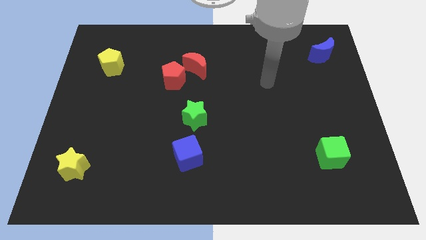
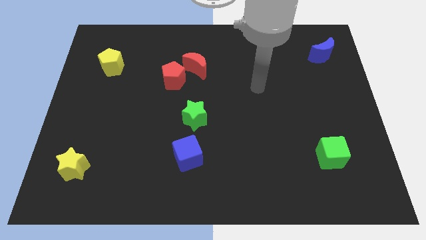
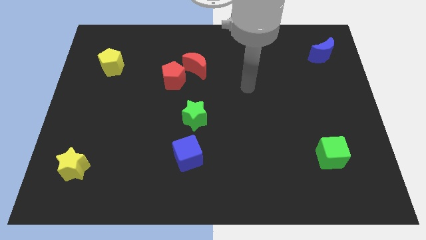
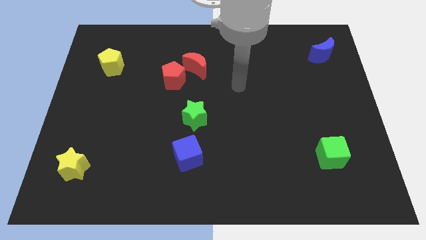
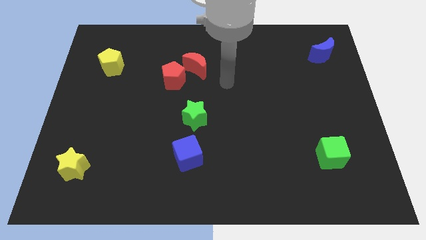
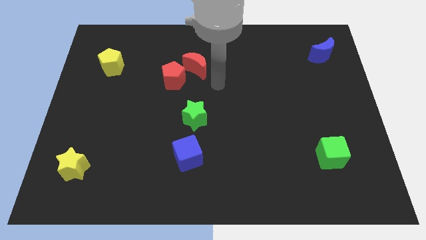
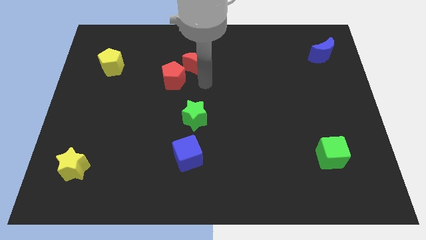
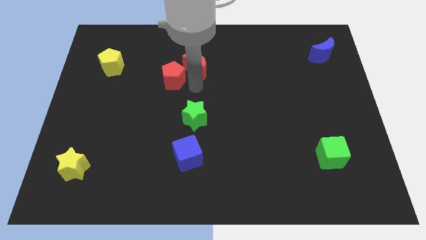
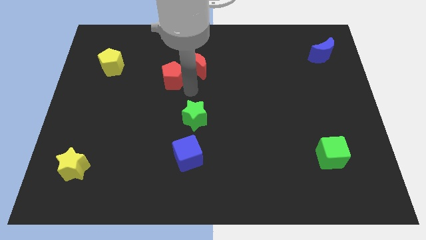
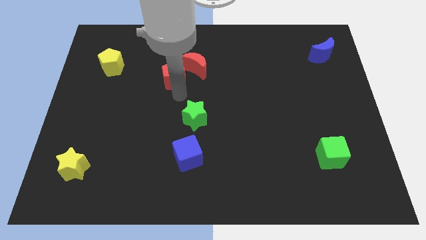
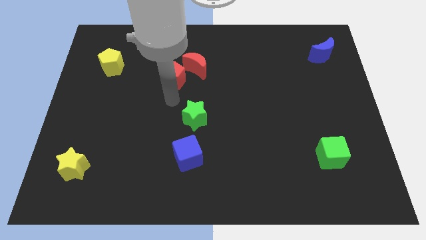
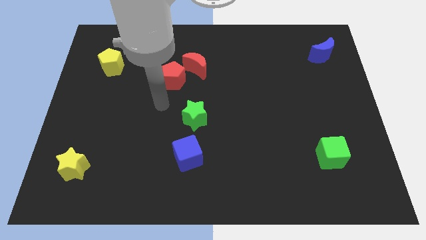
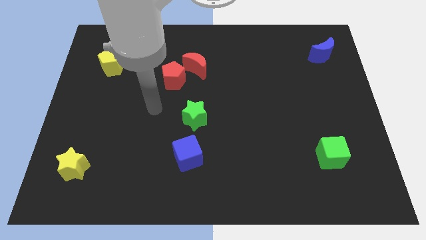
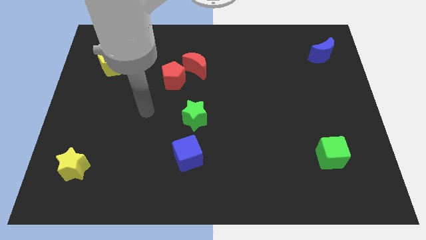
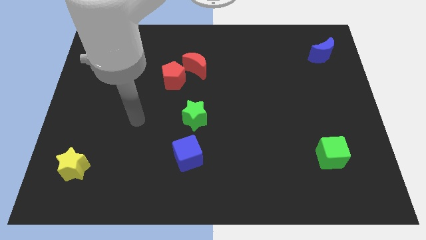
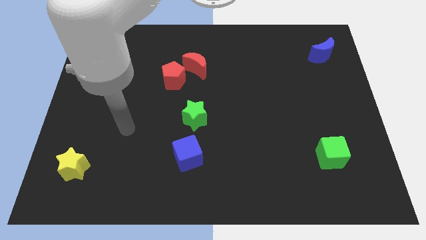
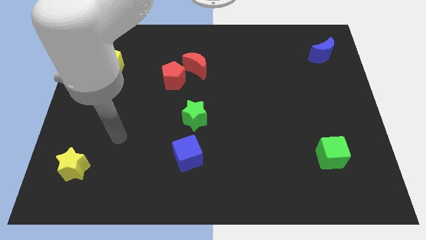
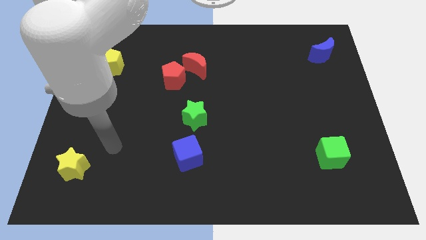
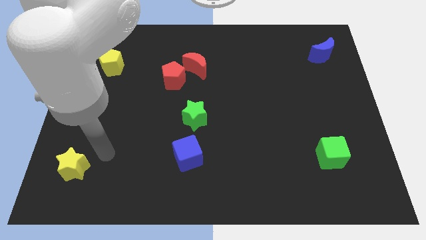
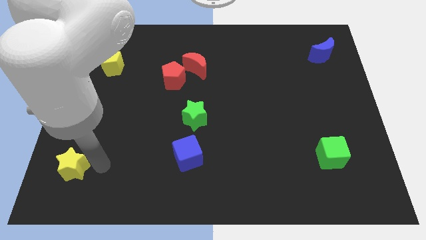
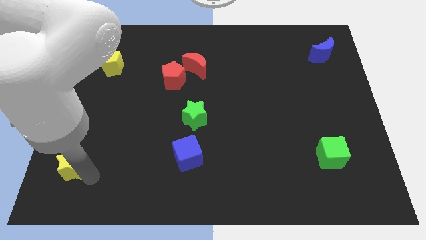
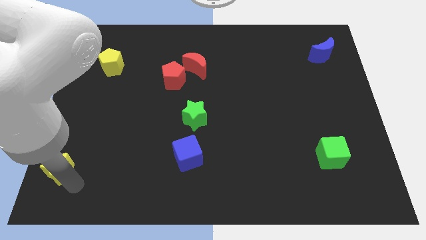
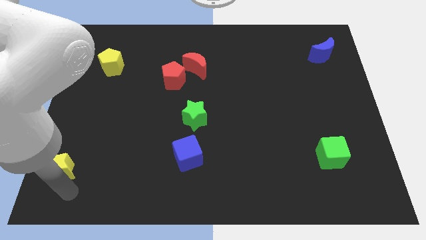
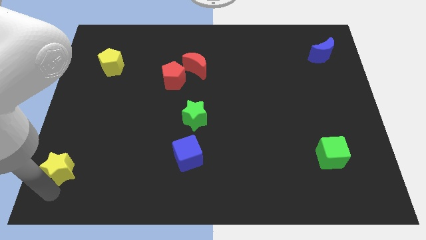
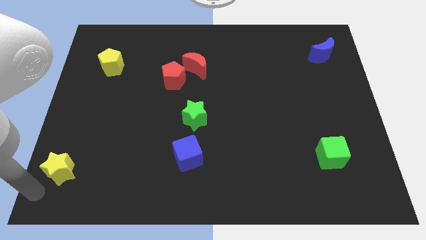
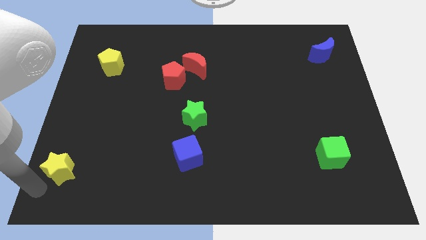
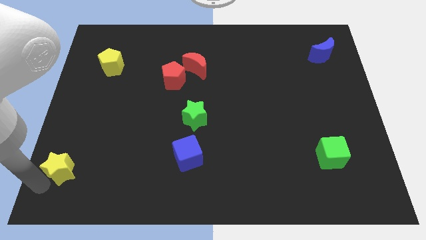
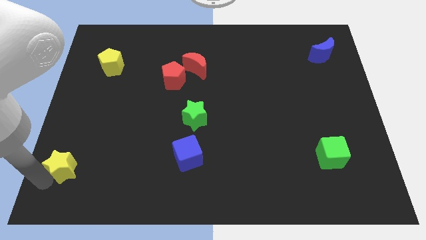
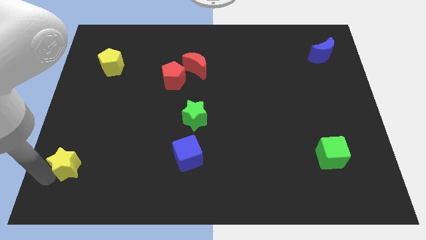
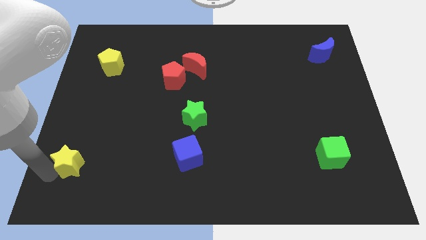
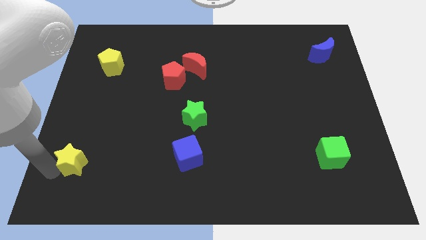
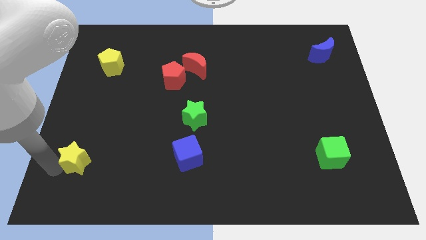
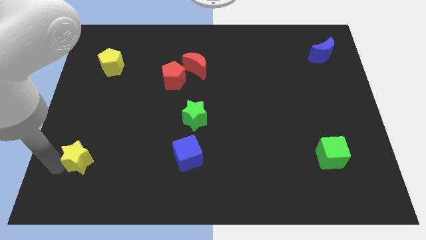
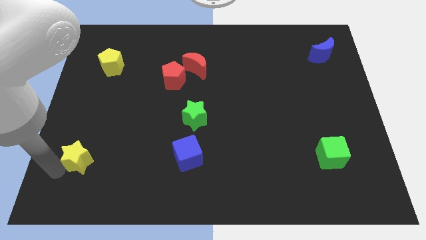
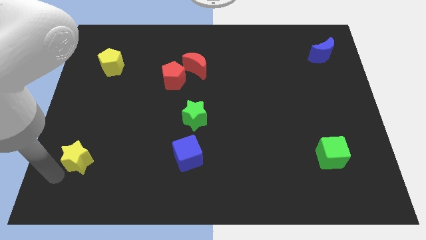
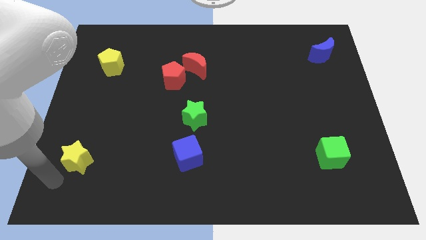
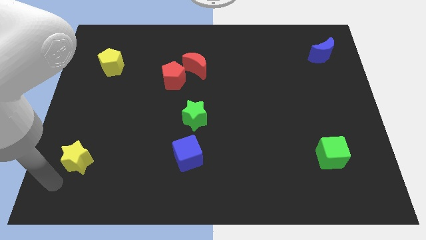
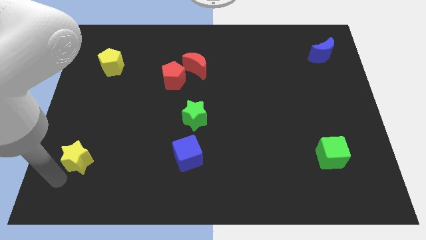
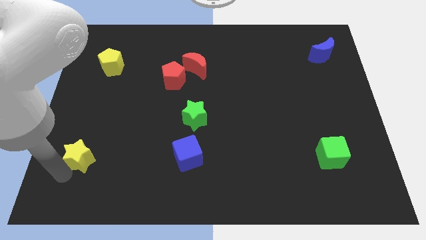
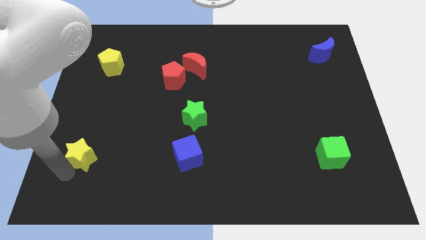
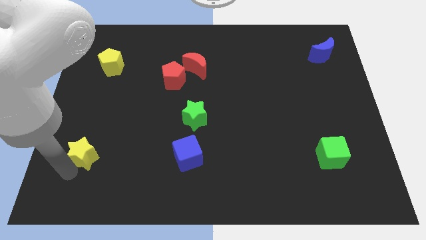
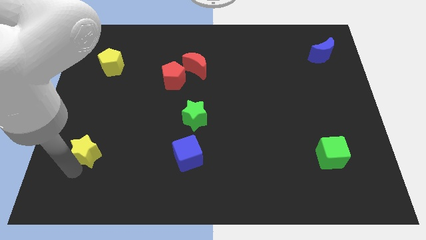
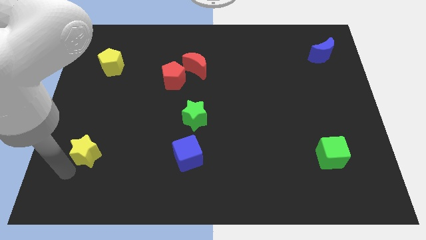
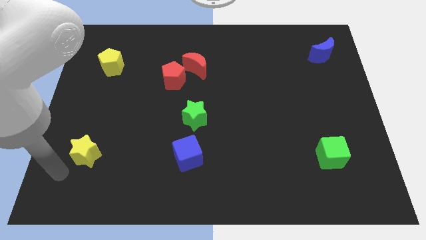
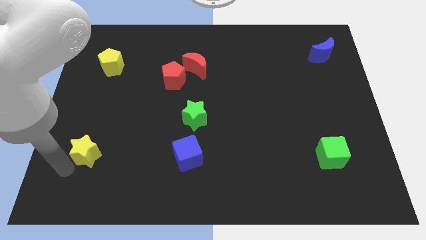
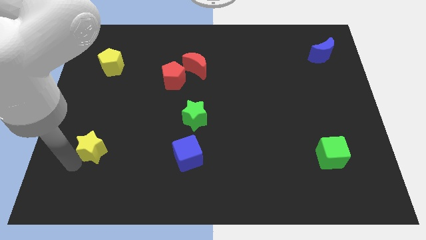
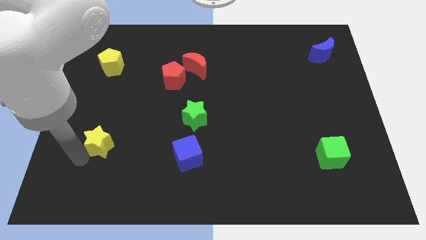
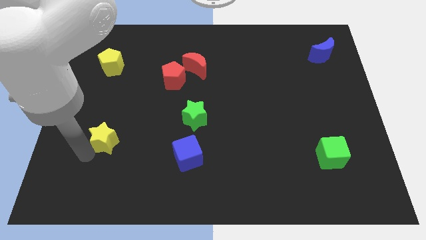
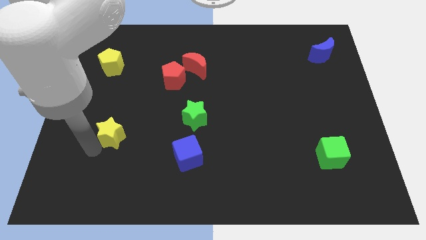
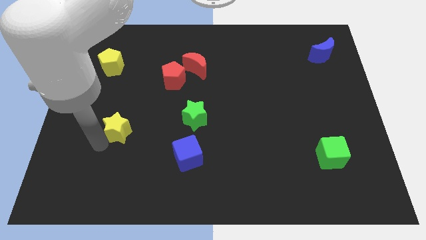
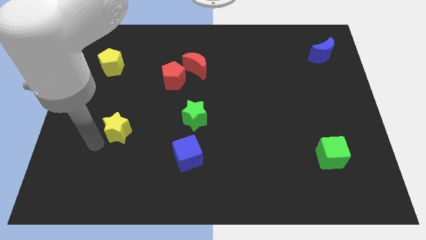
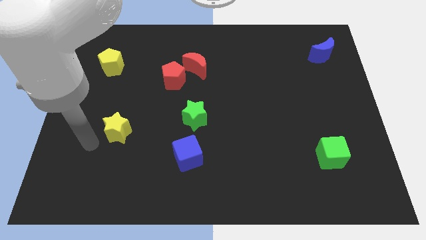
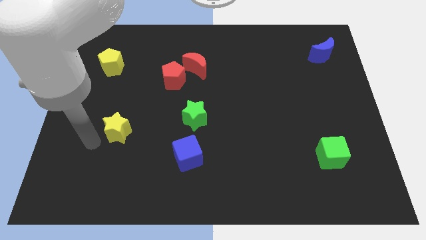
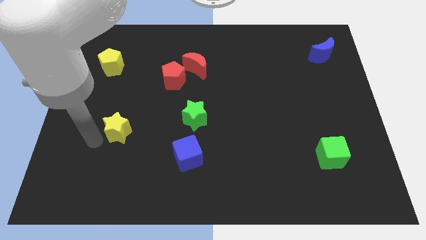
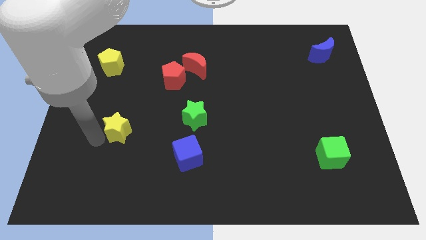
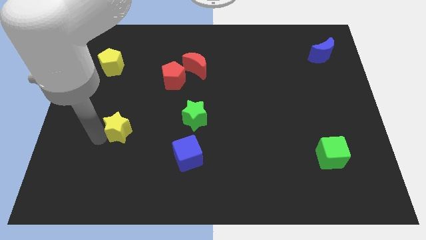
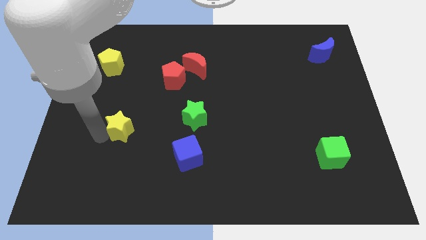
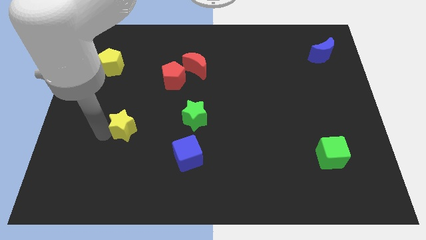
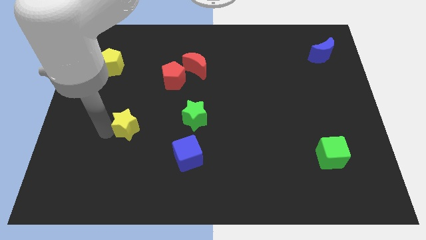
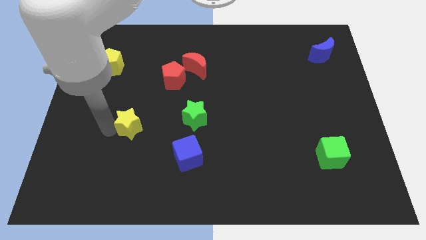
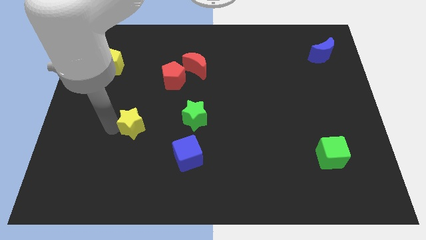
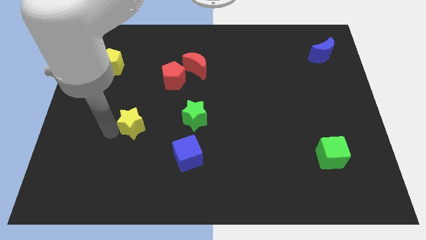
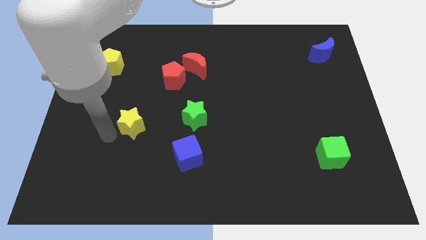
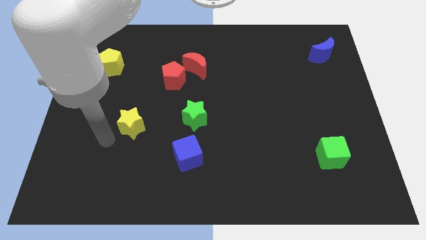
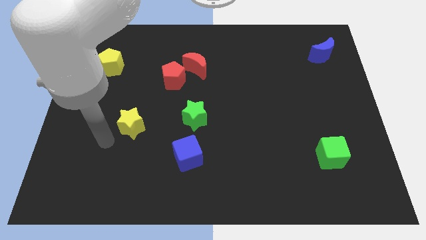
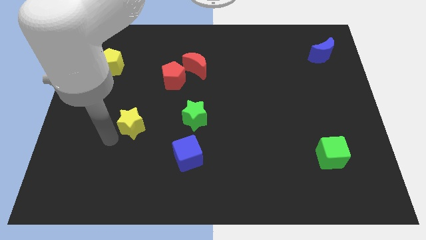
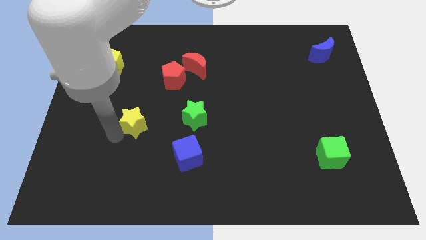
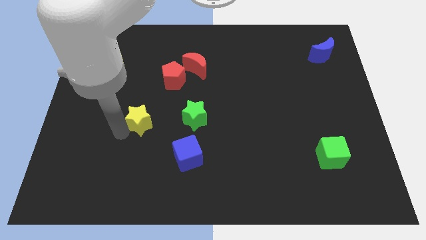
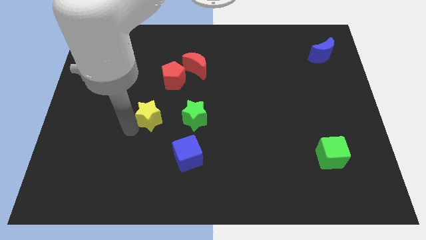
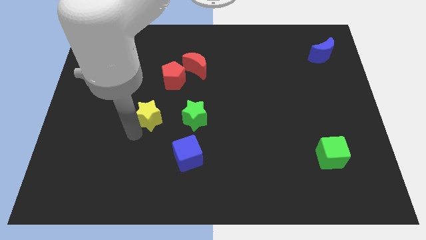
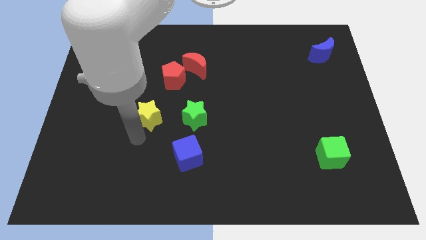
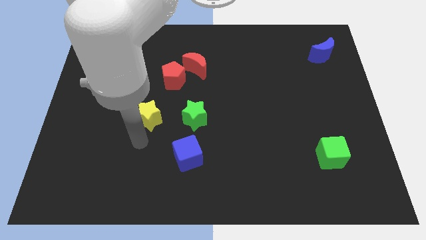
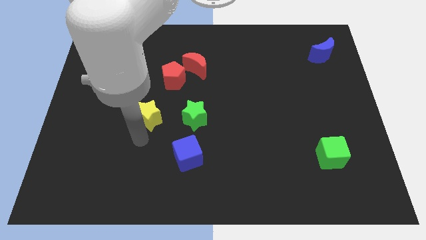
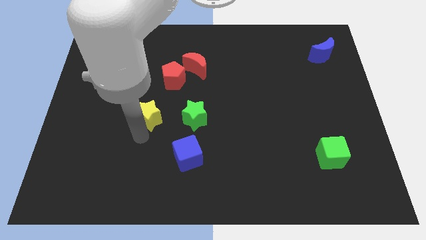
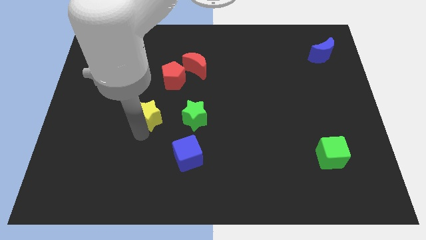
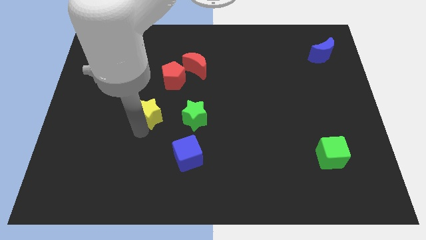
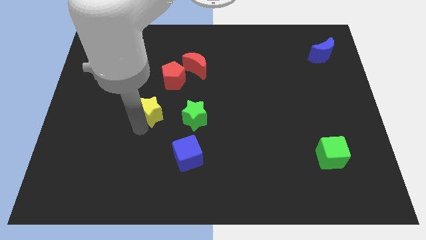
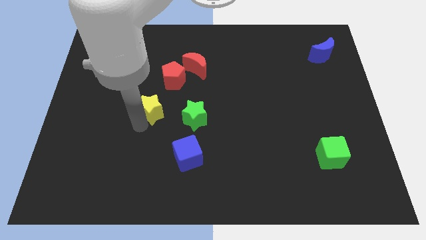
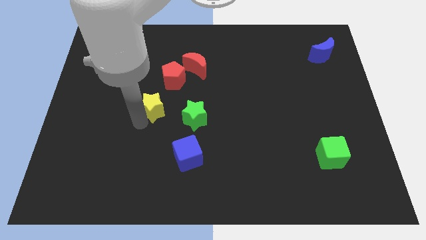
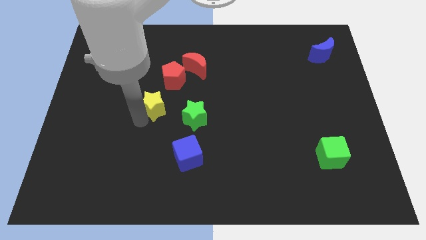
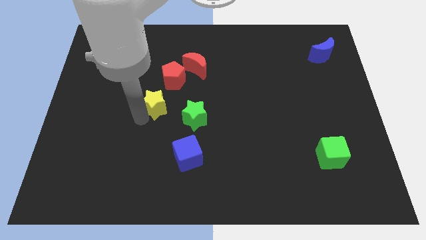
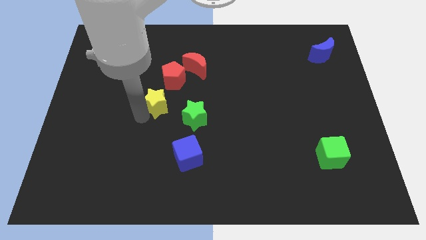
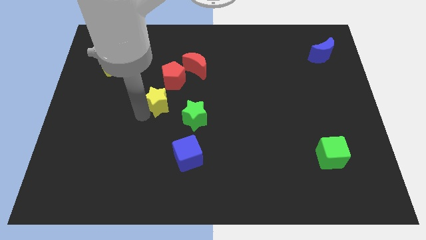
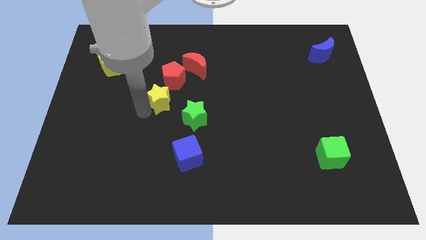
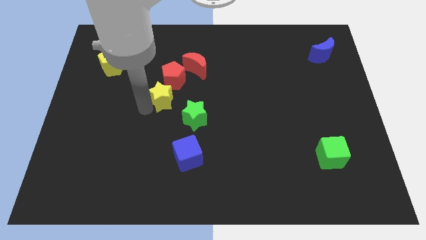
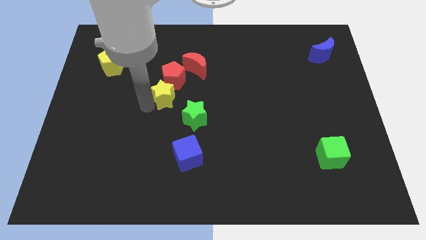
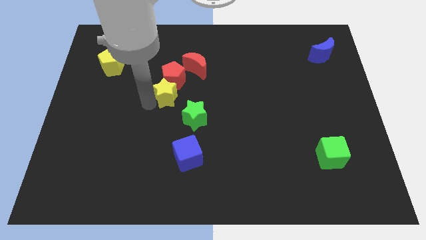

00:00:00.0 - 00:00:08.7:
slide the yellow star close to the red pentagon
